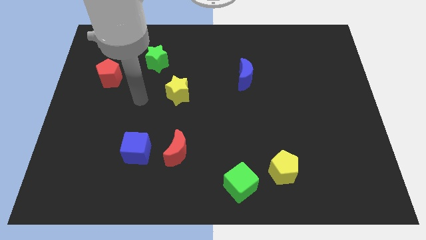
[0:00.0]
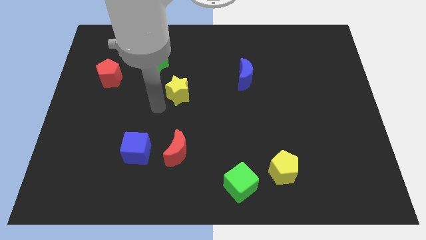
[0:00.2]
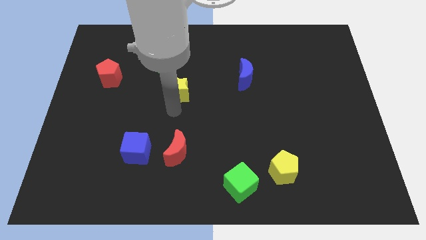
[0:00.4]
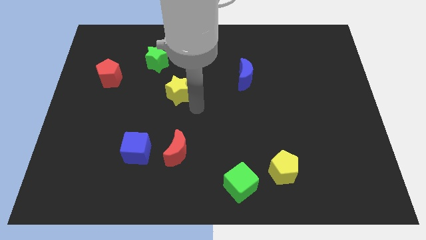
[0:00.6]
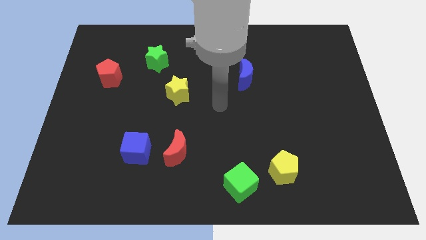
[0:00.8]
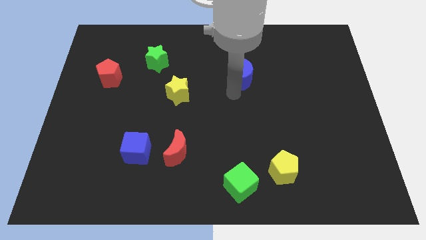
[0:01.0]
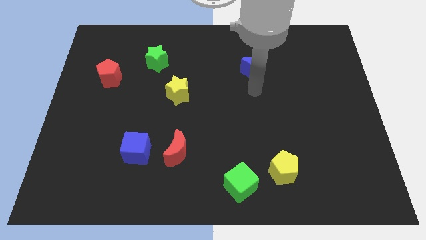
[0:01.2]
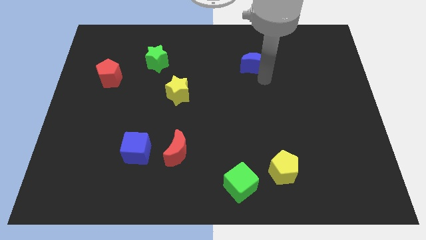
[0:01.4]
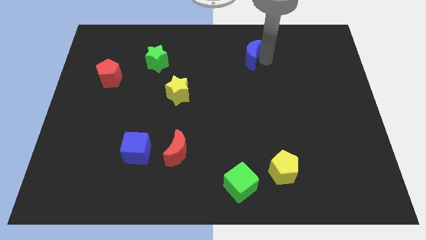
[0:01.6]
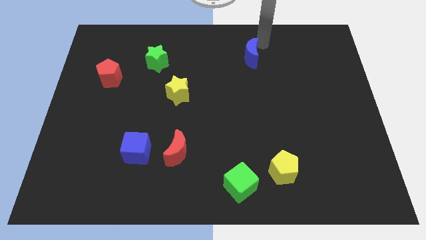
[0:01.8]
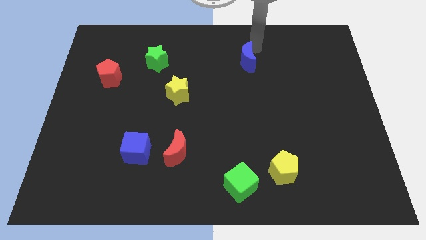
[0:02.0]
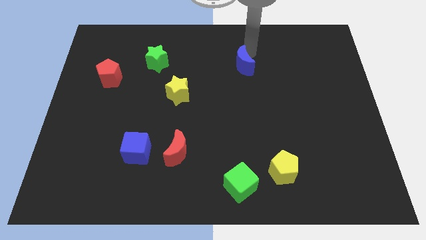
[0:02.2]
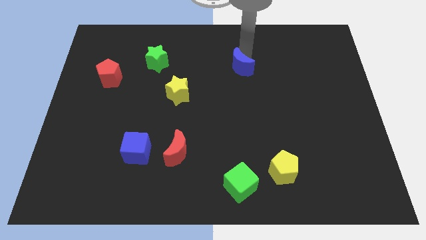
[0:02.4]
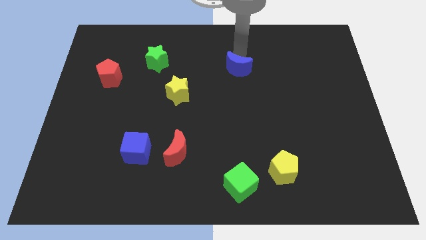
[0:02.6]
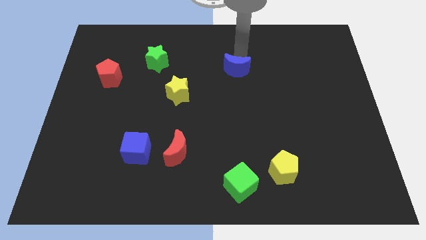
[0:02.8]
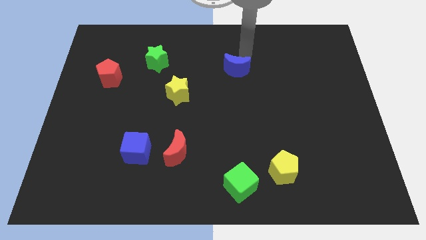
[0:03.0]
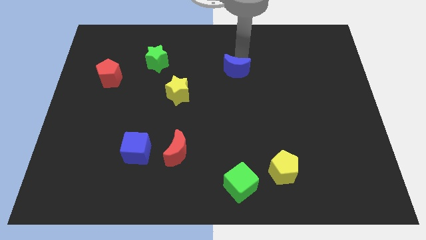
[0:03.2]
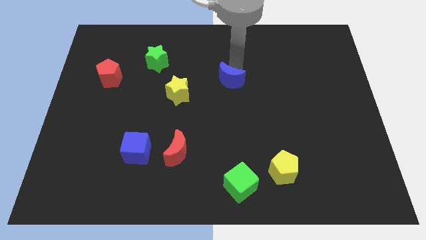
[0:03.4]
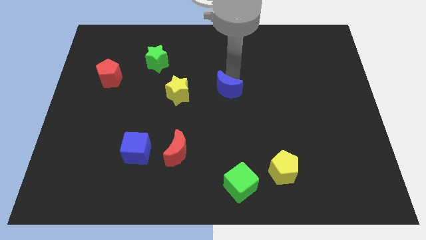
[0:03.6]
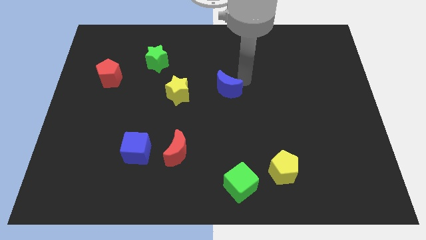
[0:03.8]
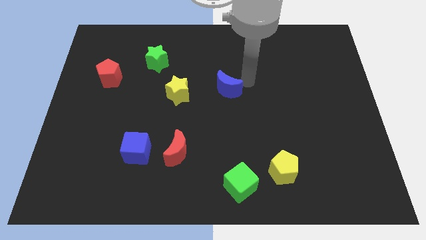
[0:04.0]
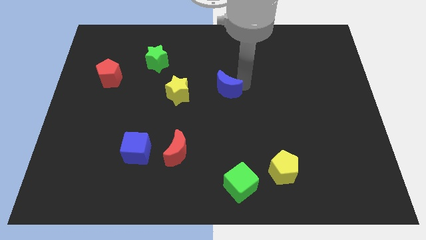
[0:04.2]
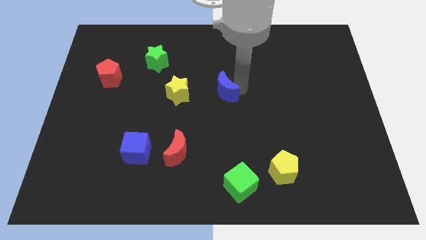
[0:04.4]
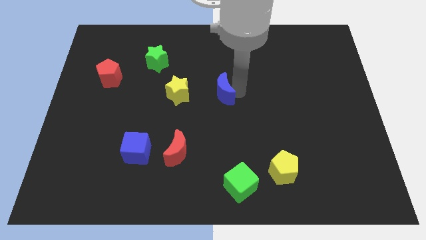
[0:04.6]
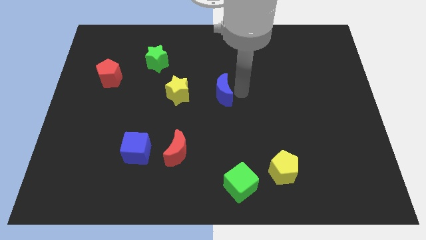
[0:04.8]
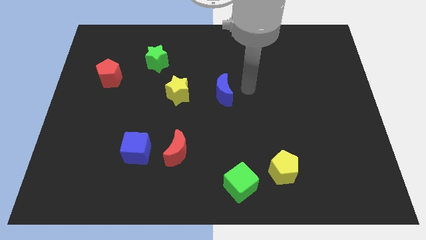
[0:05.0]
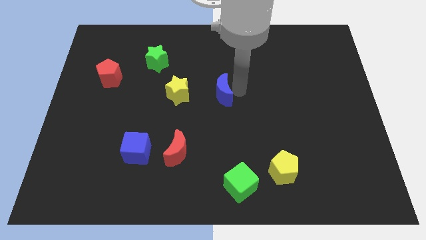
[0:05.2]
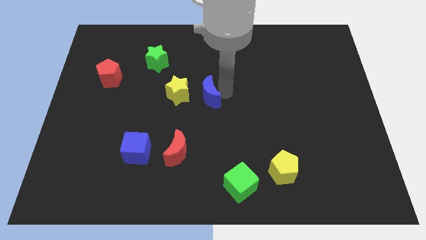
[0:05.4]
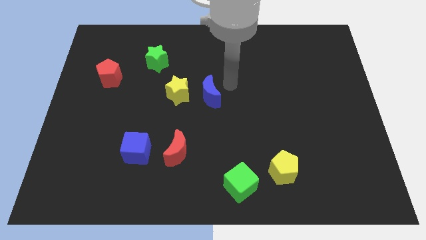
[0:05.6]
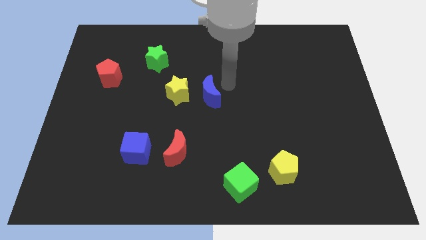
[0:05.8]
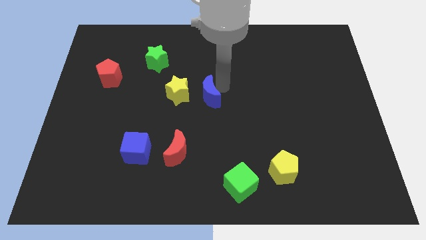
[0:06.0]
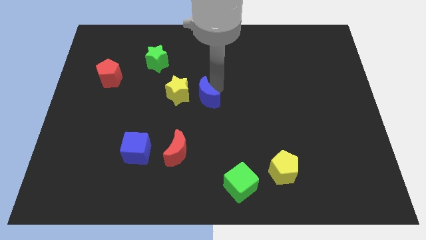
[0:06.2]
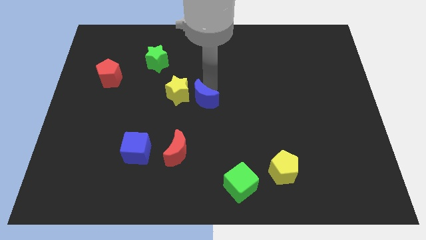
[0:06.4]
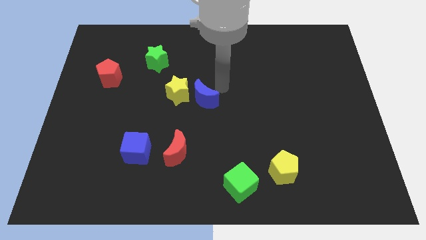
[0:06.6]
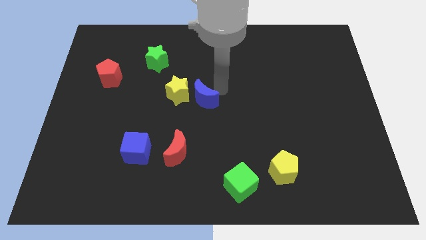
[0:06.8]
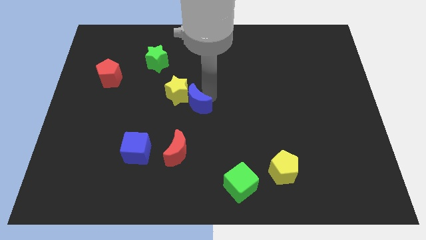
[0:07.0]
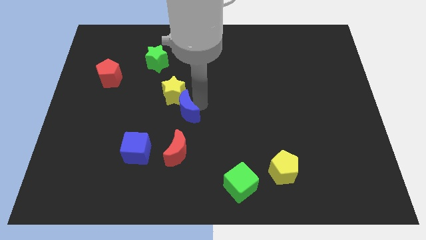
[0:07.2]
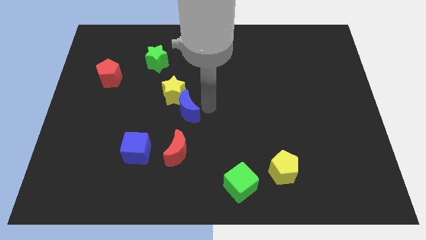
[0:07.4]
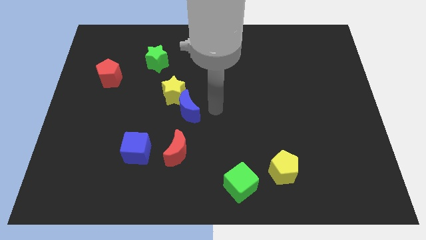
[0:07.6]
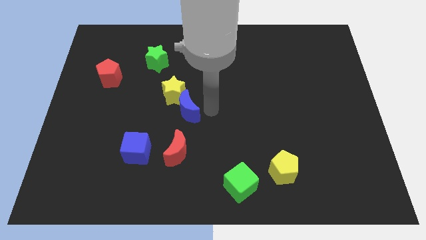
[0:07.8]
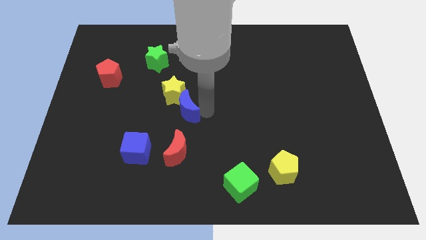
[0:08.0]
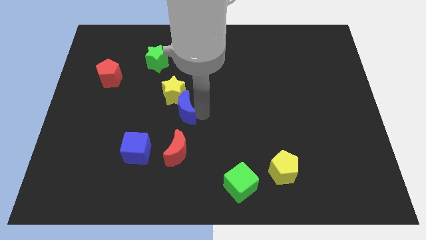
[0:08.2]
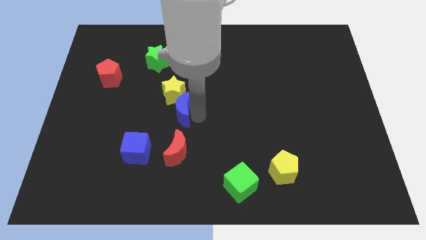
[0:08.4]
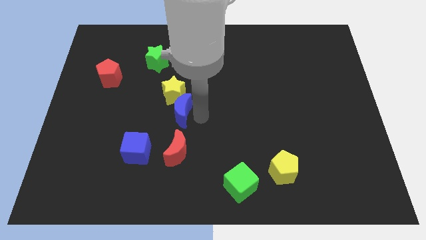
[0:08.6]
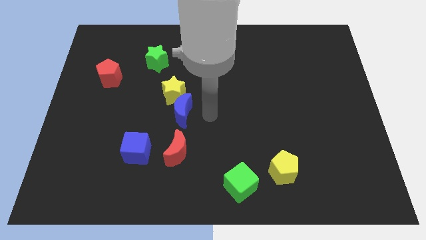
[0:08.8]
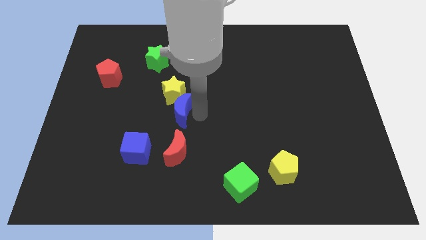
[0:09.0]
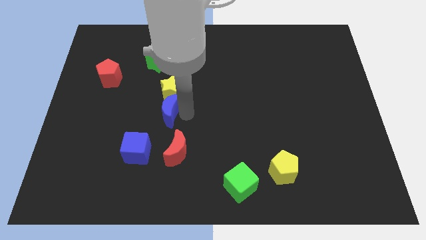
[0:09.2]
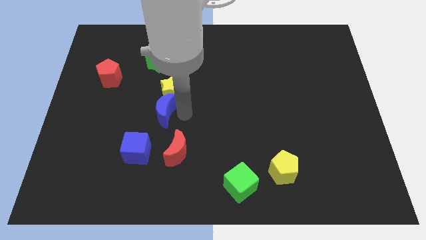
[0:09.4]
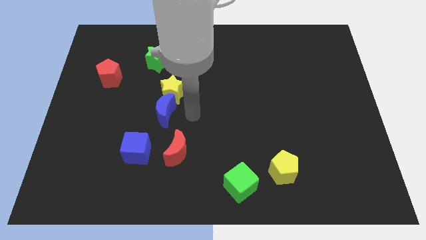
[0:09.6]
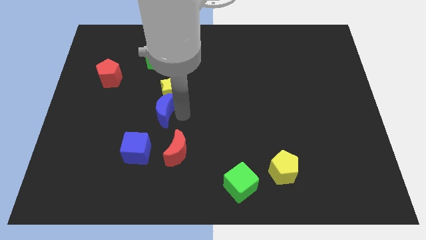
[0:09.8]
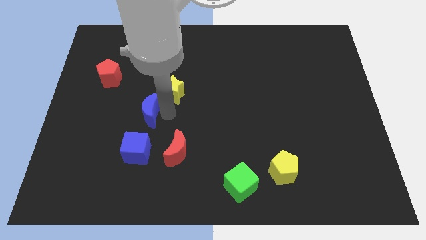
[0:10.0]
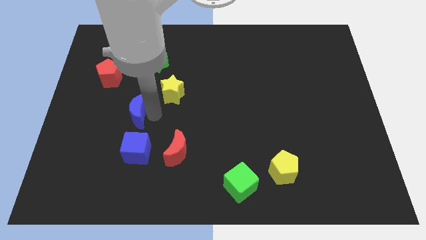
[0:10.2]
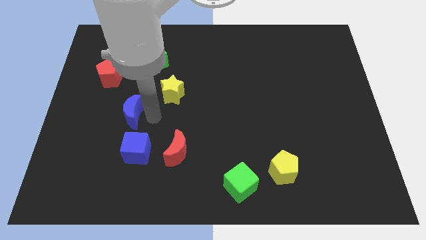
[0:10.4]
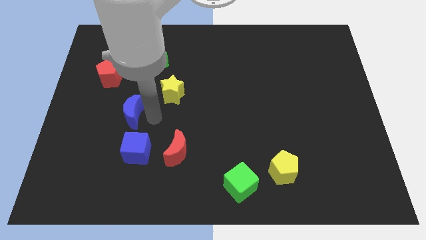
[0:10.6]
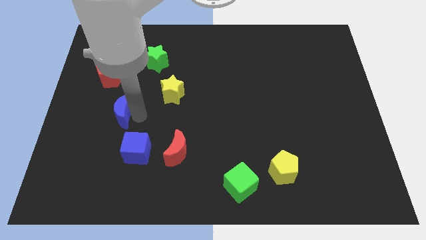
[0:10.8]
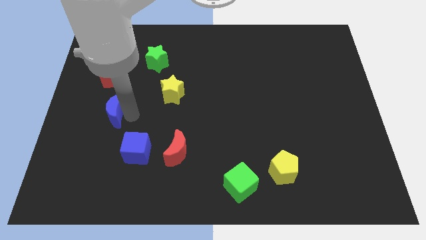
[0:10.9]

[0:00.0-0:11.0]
move the blue moon to the bottom side of the red pentagon

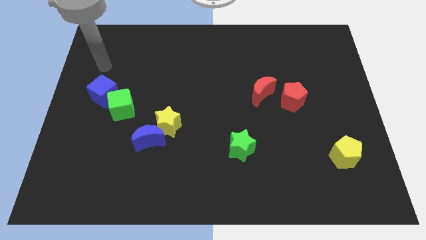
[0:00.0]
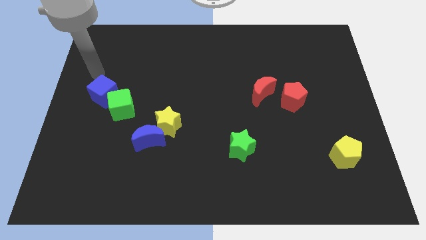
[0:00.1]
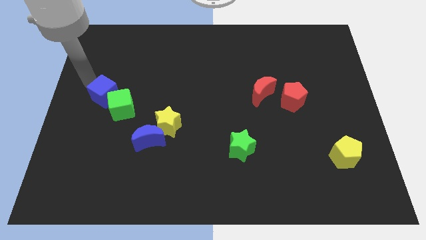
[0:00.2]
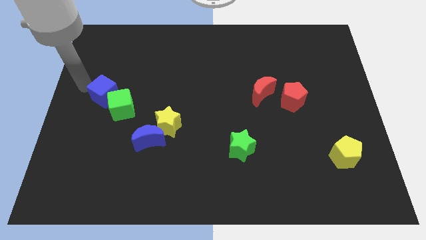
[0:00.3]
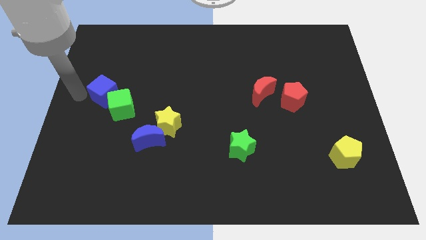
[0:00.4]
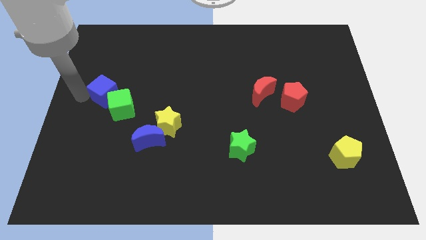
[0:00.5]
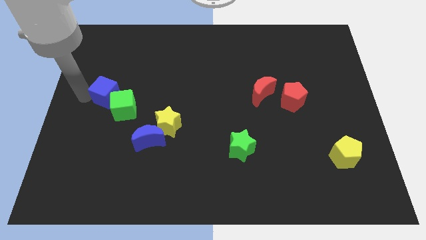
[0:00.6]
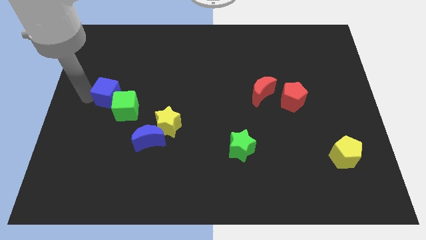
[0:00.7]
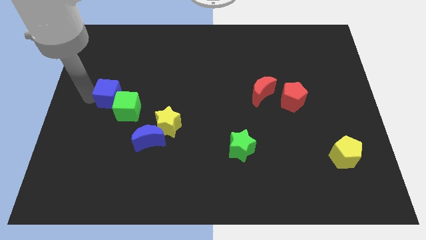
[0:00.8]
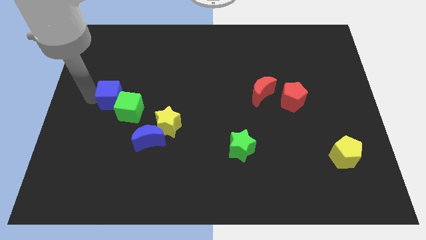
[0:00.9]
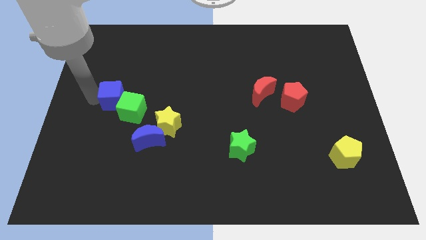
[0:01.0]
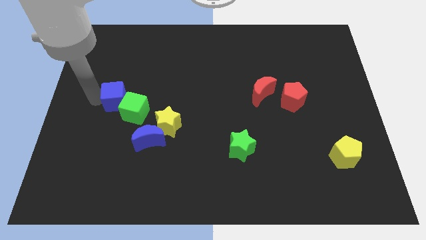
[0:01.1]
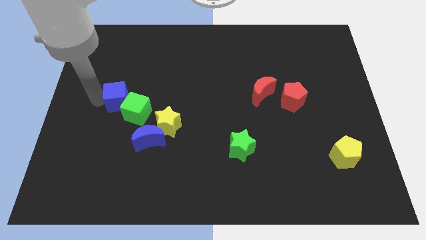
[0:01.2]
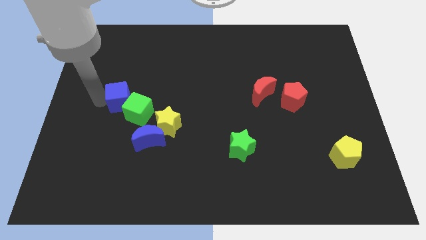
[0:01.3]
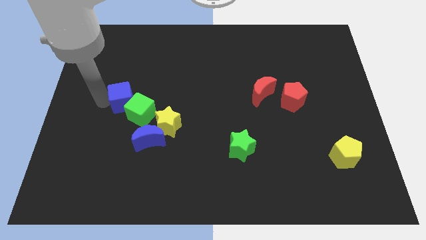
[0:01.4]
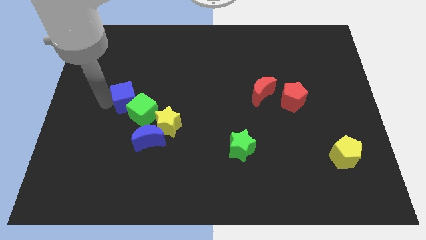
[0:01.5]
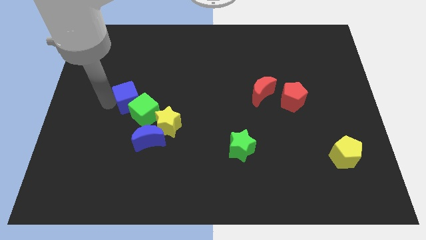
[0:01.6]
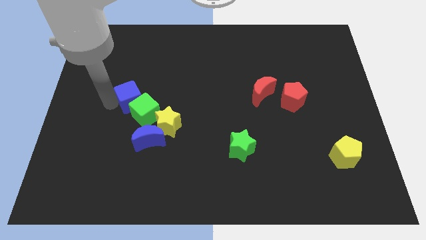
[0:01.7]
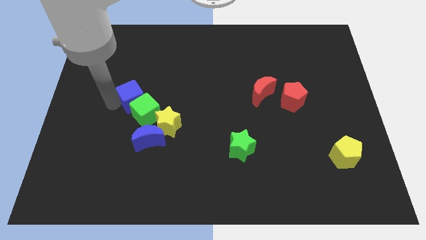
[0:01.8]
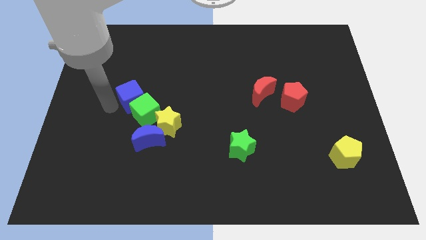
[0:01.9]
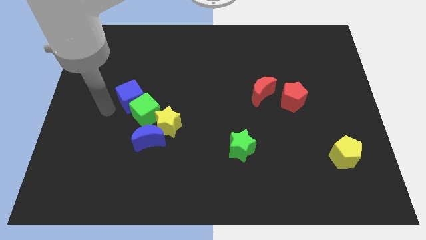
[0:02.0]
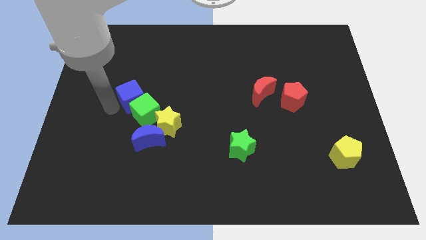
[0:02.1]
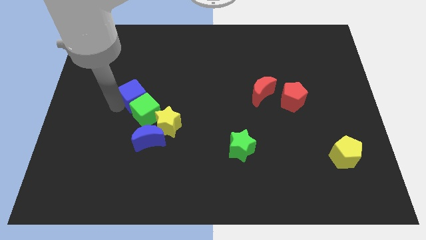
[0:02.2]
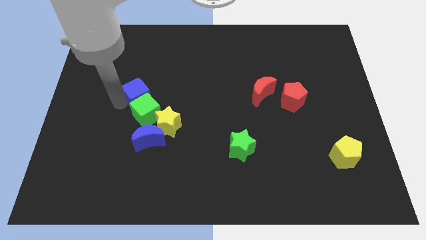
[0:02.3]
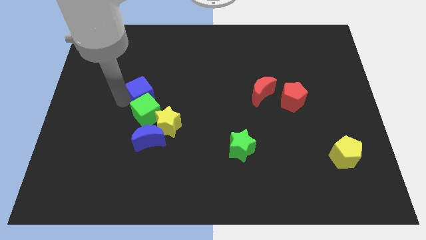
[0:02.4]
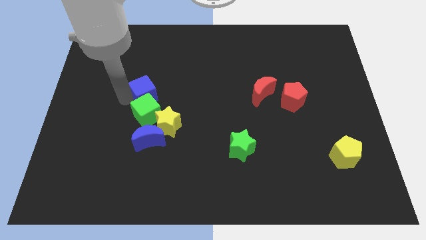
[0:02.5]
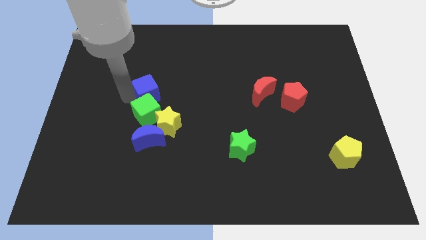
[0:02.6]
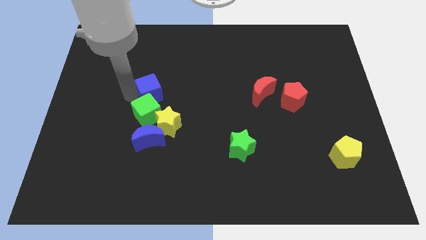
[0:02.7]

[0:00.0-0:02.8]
put the blue cube above the yellow star
